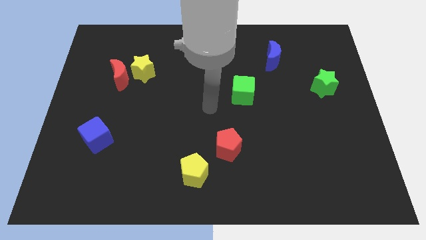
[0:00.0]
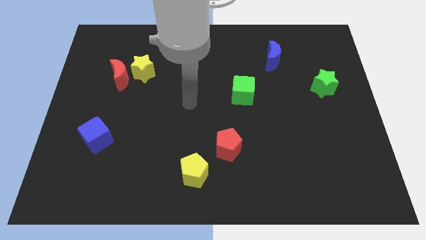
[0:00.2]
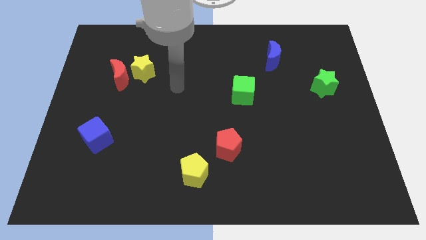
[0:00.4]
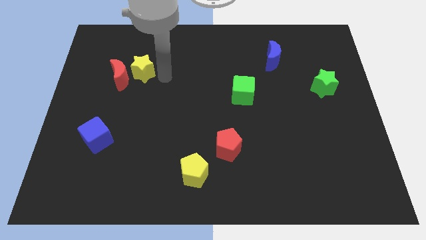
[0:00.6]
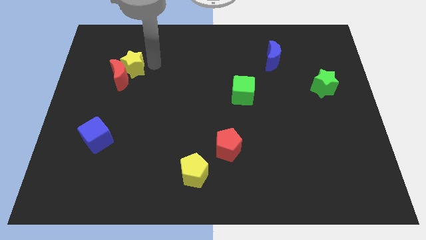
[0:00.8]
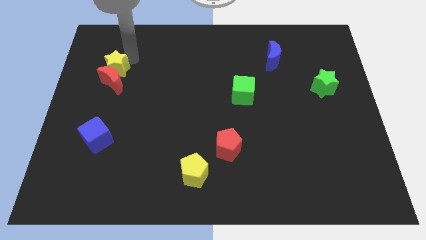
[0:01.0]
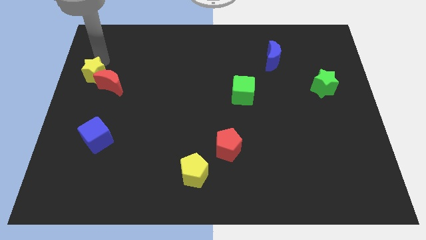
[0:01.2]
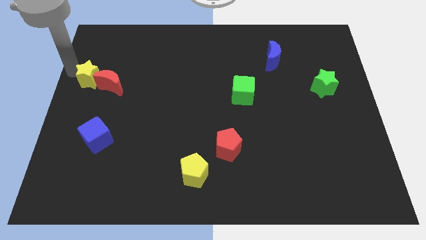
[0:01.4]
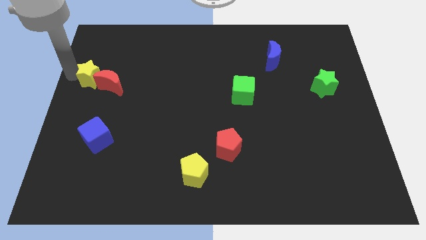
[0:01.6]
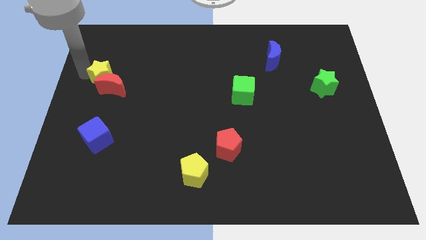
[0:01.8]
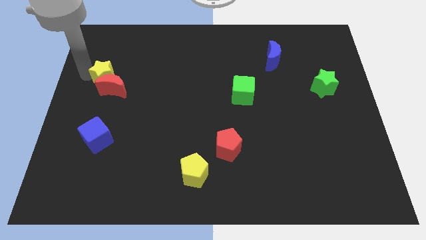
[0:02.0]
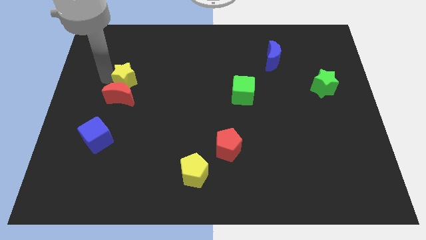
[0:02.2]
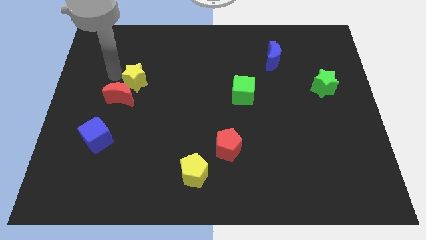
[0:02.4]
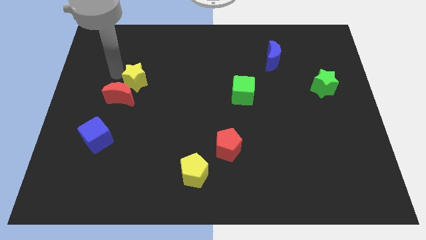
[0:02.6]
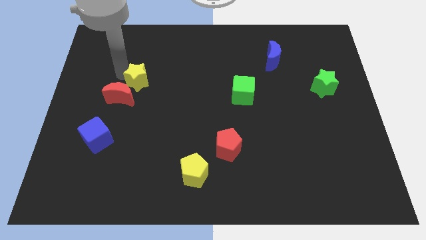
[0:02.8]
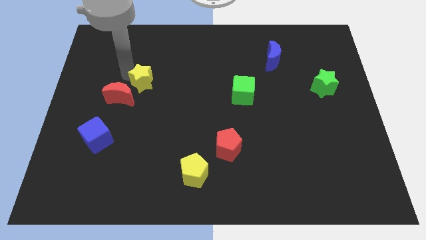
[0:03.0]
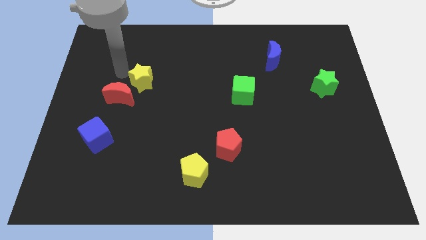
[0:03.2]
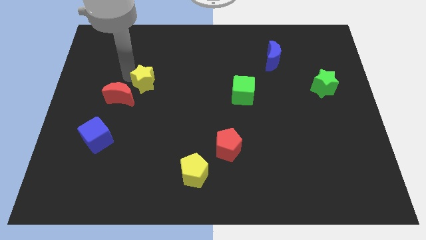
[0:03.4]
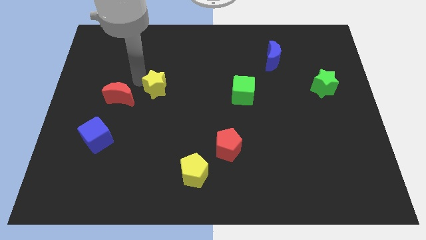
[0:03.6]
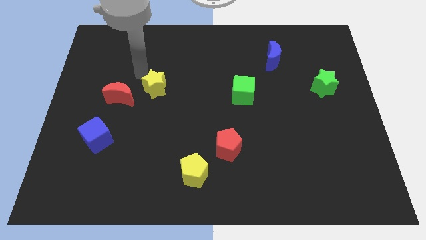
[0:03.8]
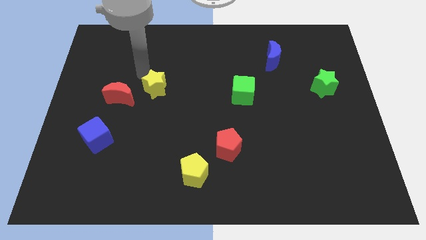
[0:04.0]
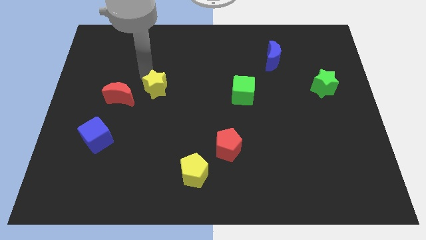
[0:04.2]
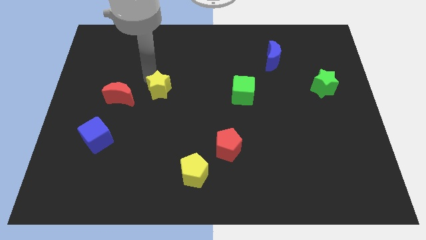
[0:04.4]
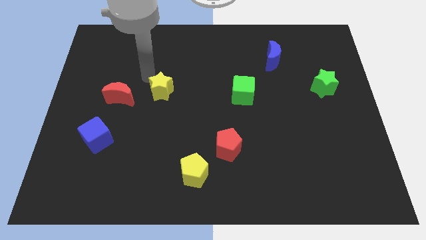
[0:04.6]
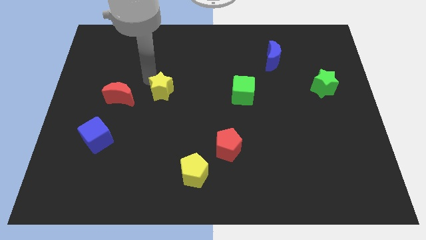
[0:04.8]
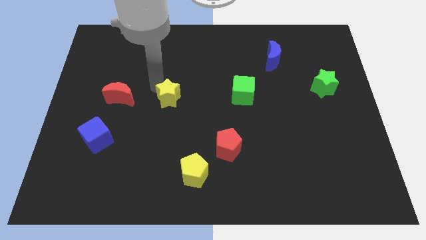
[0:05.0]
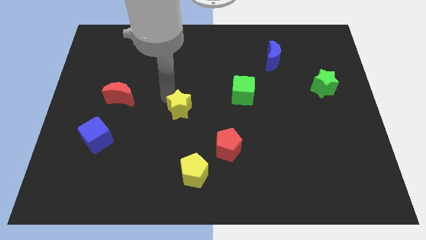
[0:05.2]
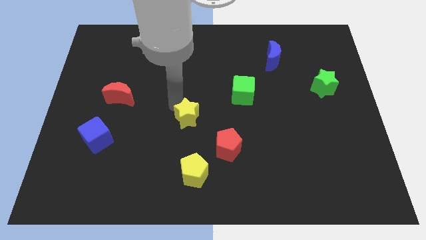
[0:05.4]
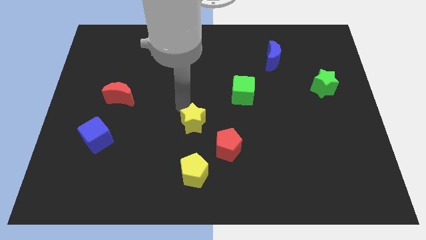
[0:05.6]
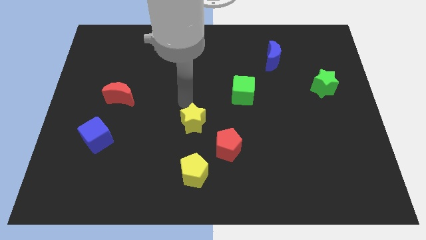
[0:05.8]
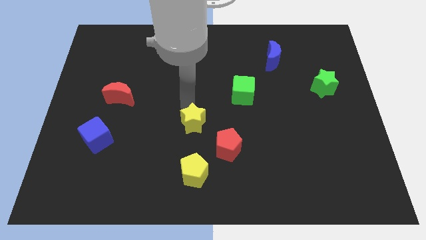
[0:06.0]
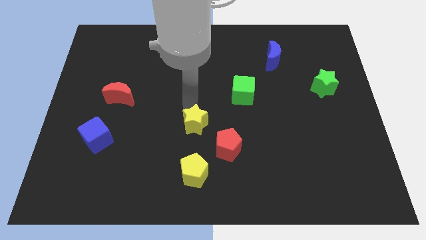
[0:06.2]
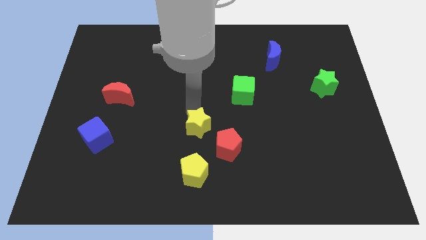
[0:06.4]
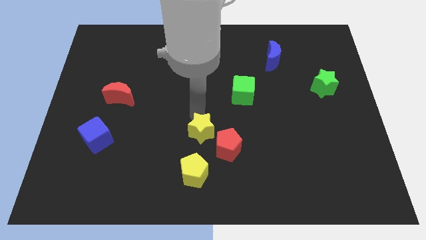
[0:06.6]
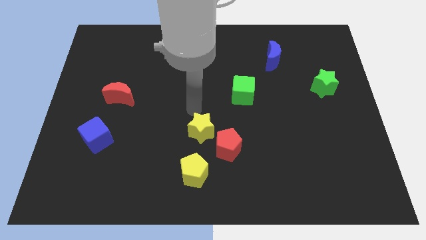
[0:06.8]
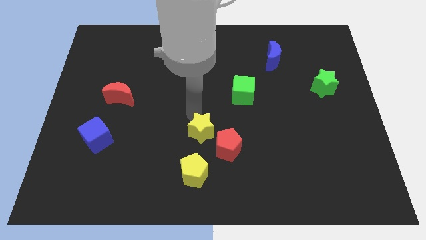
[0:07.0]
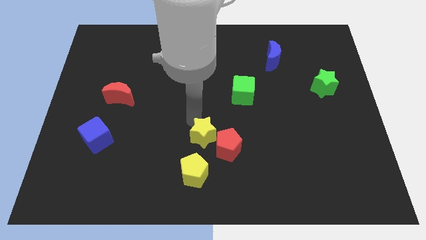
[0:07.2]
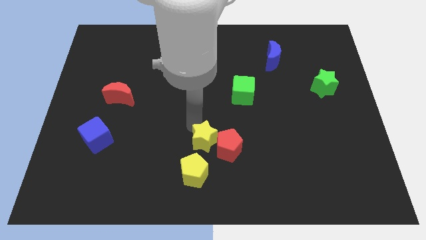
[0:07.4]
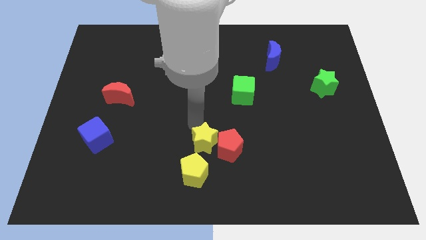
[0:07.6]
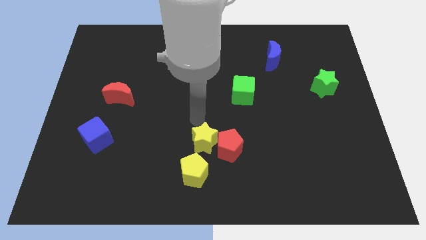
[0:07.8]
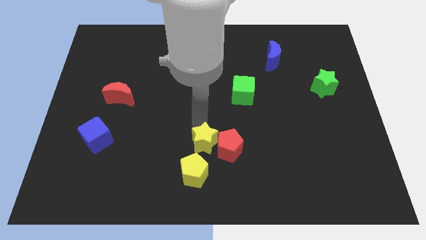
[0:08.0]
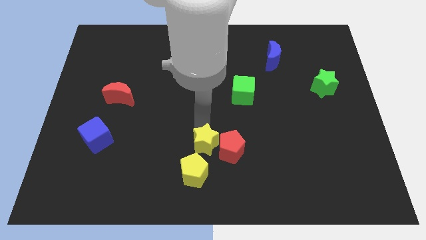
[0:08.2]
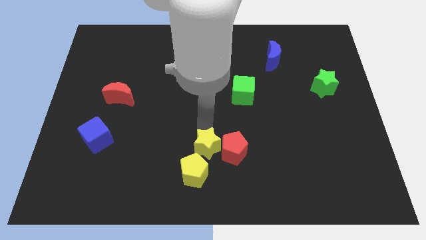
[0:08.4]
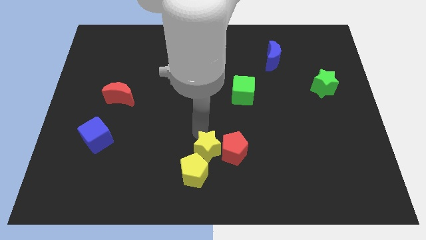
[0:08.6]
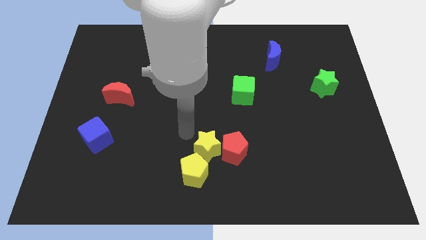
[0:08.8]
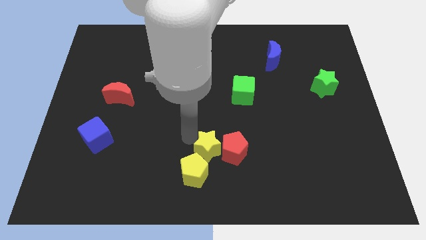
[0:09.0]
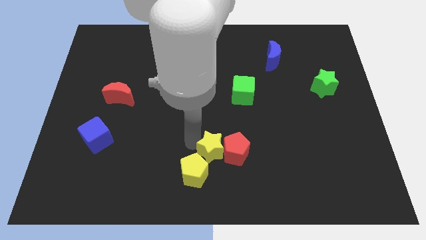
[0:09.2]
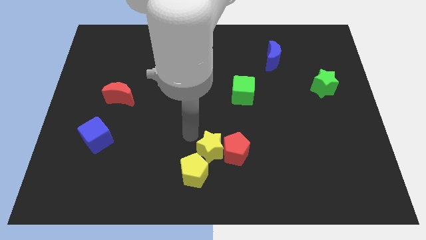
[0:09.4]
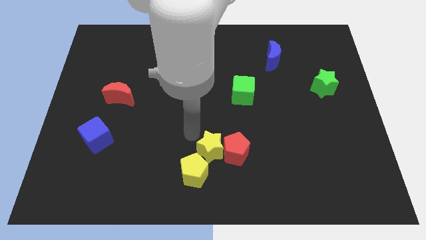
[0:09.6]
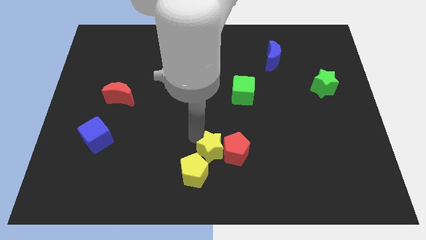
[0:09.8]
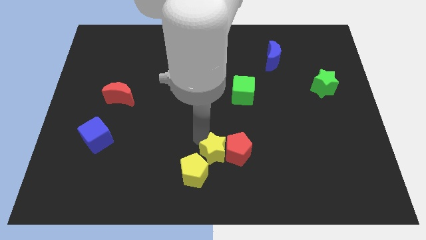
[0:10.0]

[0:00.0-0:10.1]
slide the yellow star to the right of the yellow pentagon

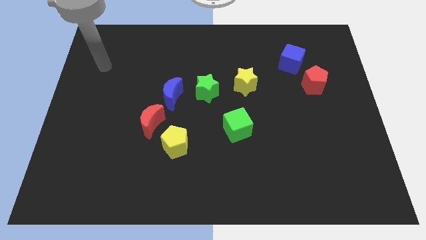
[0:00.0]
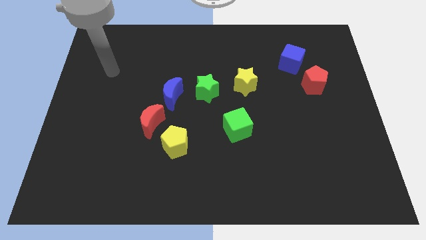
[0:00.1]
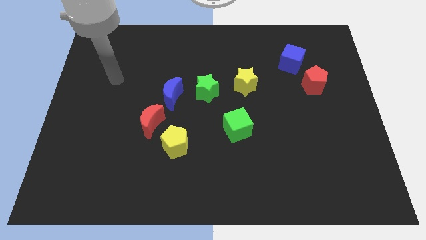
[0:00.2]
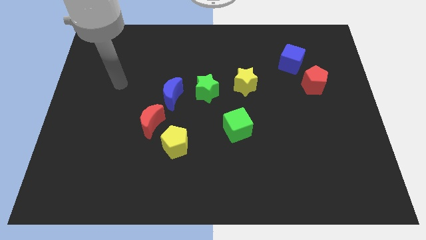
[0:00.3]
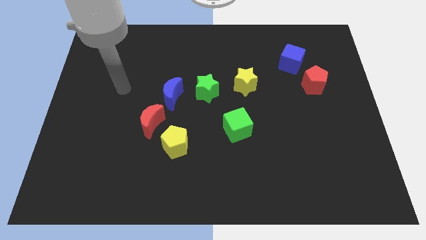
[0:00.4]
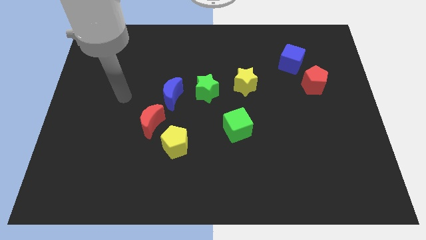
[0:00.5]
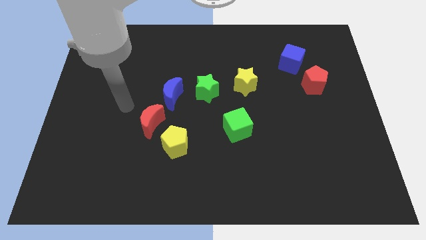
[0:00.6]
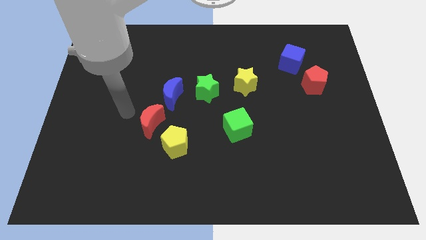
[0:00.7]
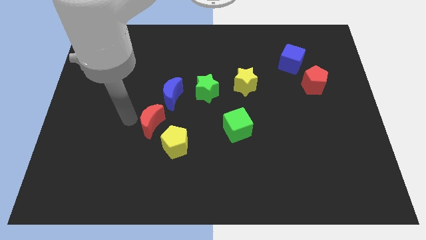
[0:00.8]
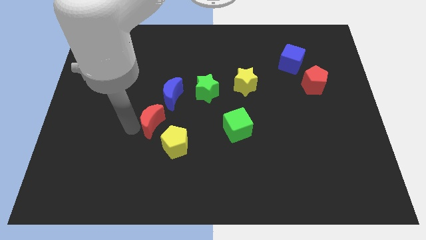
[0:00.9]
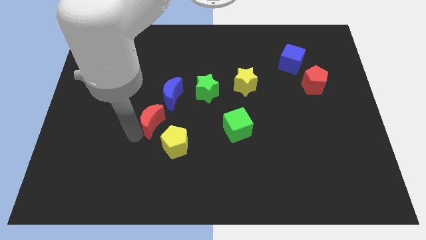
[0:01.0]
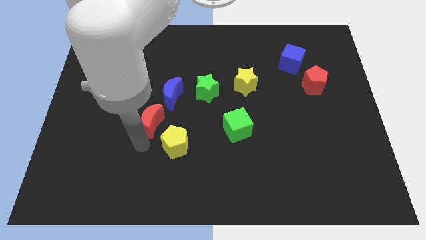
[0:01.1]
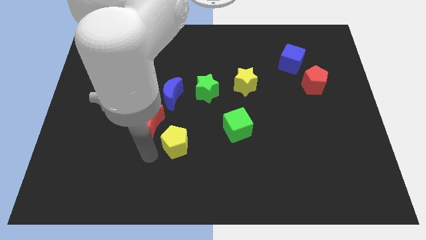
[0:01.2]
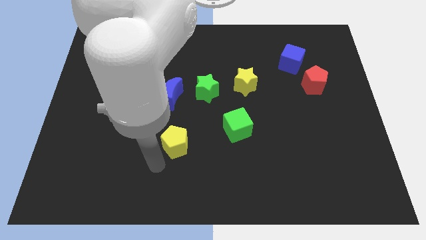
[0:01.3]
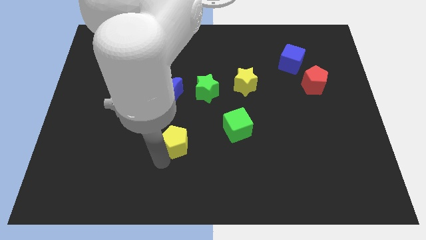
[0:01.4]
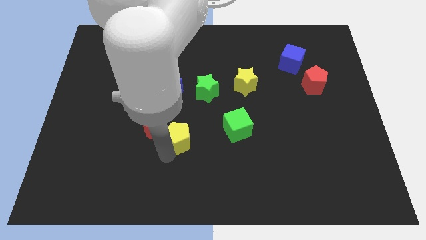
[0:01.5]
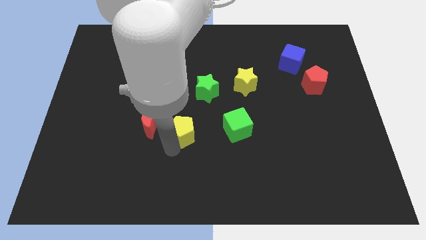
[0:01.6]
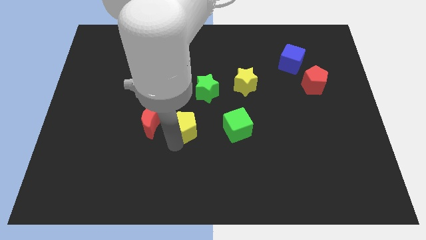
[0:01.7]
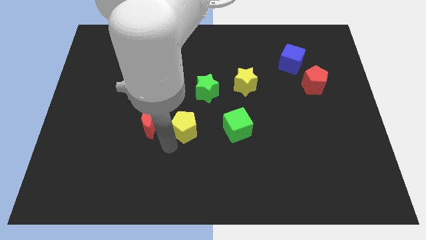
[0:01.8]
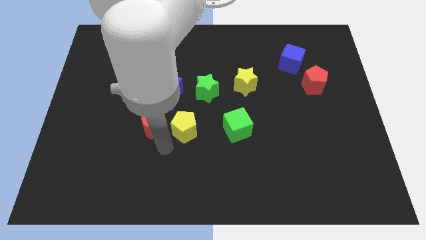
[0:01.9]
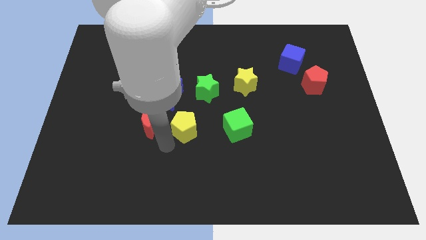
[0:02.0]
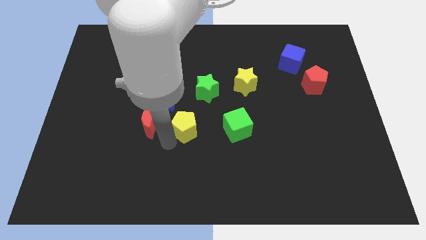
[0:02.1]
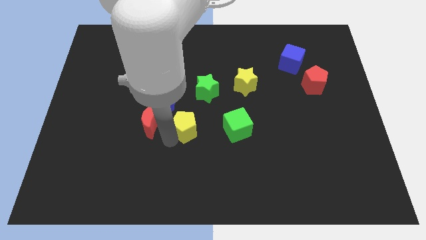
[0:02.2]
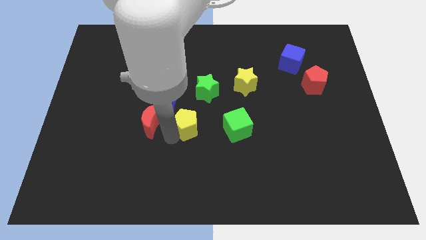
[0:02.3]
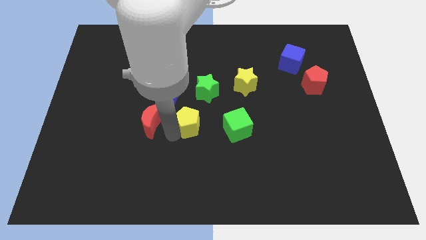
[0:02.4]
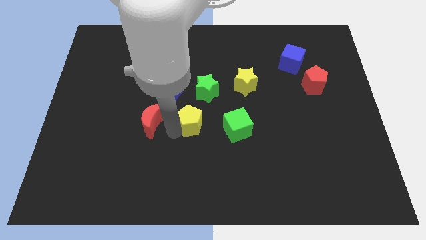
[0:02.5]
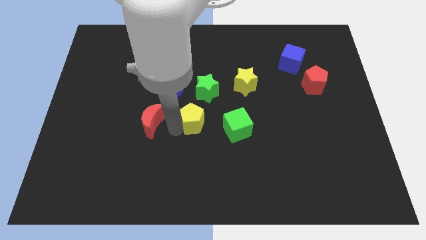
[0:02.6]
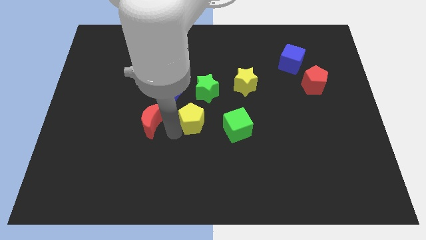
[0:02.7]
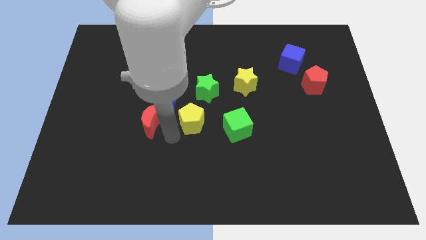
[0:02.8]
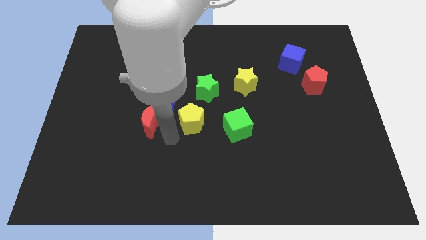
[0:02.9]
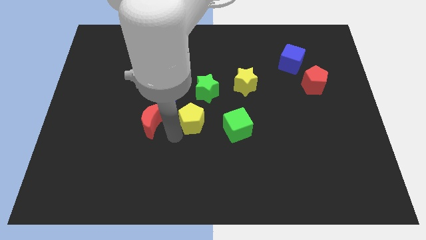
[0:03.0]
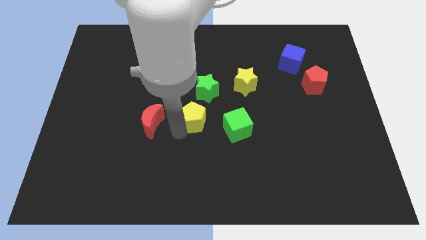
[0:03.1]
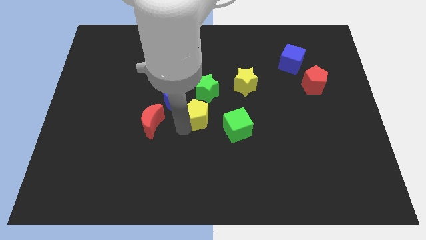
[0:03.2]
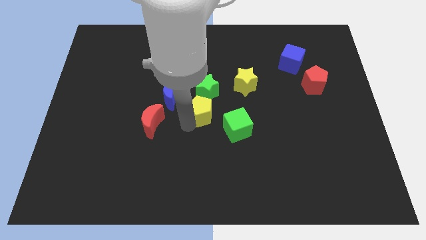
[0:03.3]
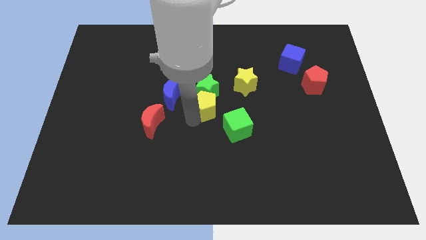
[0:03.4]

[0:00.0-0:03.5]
push the yellow pentagon to the bottom left of the yellow star

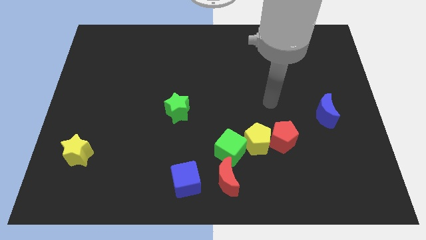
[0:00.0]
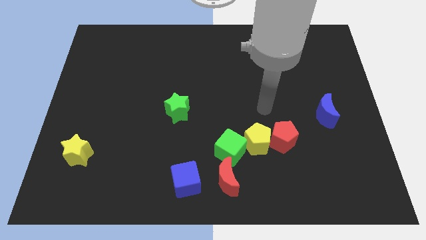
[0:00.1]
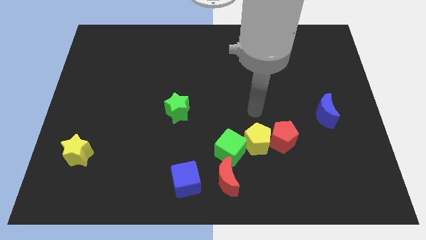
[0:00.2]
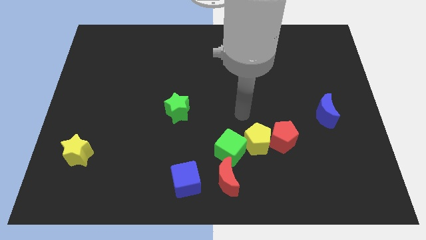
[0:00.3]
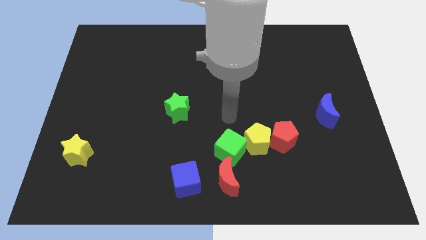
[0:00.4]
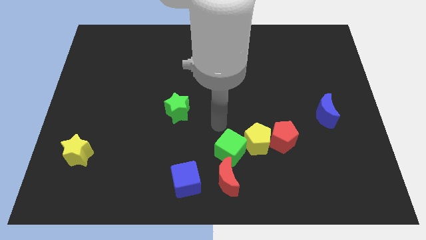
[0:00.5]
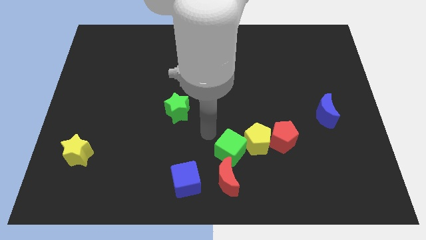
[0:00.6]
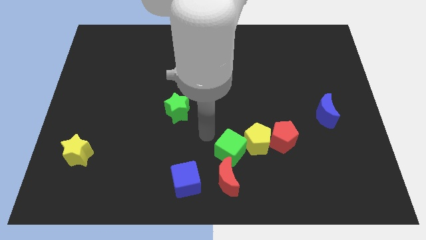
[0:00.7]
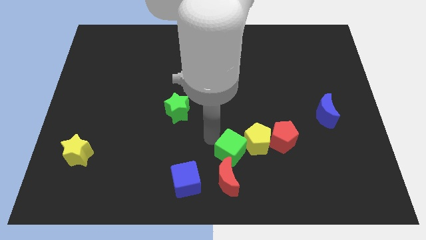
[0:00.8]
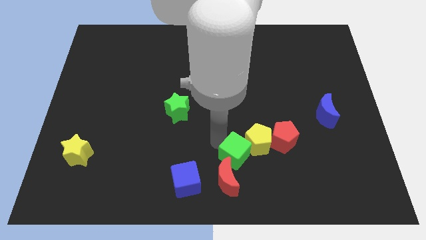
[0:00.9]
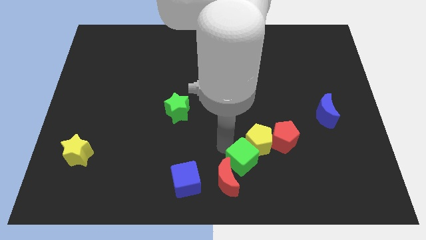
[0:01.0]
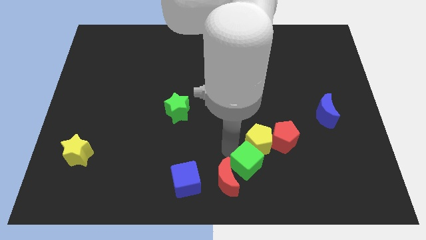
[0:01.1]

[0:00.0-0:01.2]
put the green cube to the right of the red moon
